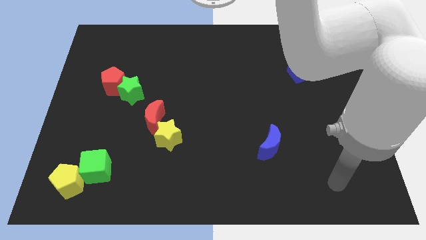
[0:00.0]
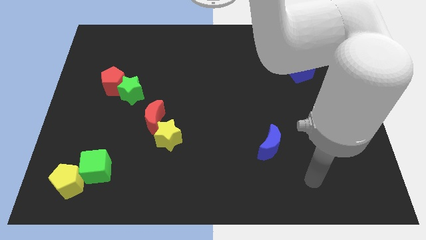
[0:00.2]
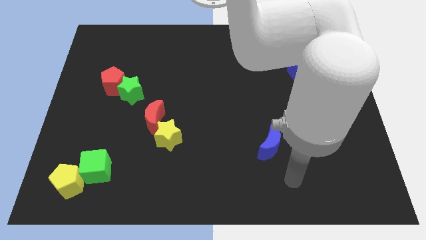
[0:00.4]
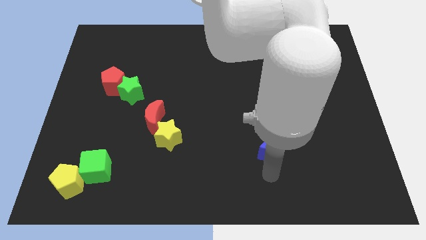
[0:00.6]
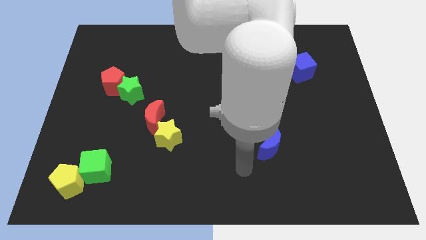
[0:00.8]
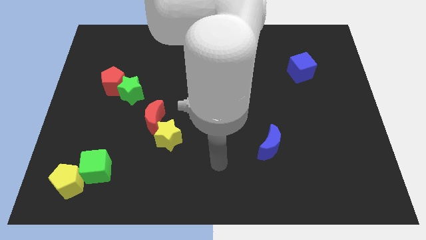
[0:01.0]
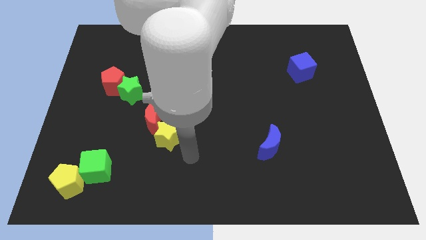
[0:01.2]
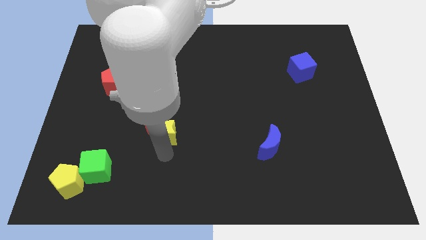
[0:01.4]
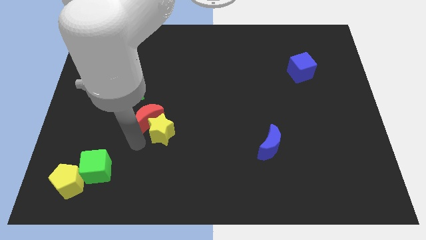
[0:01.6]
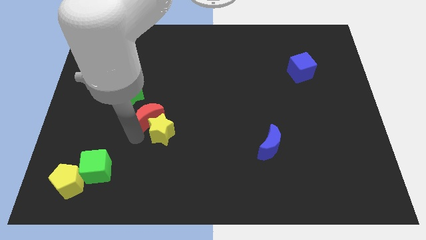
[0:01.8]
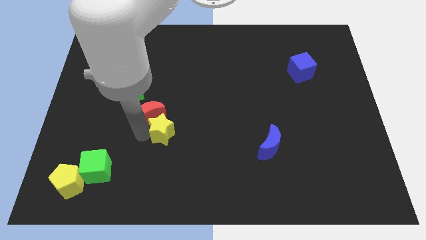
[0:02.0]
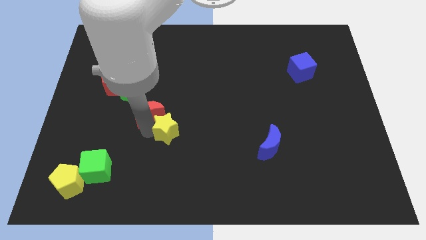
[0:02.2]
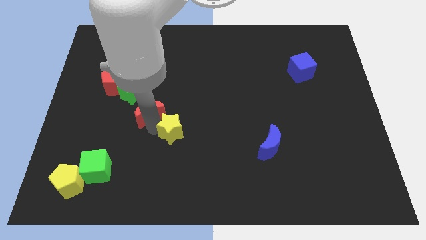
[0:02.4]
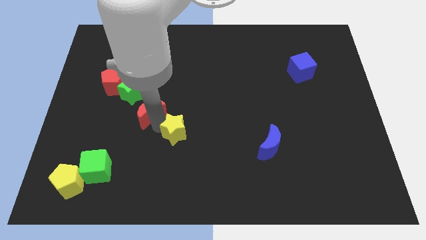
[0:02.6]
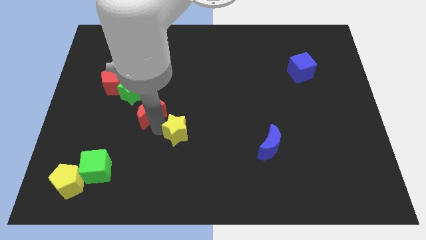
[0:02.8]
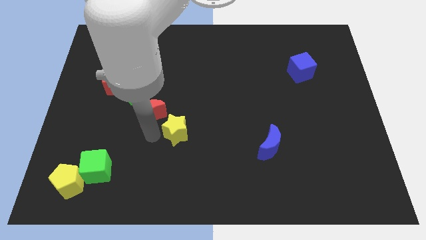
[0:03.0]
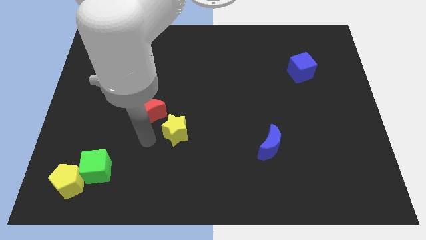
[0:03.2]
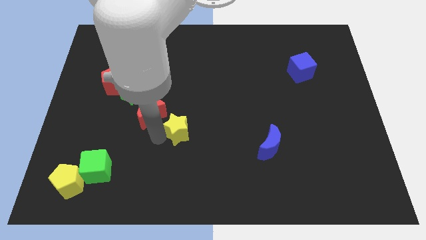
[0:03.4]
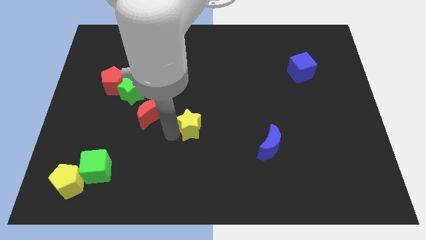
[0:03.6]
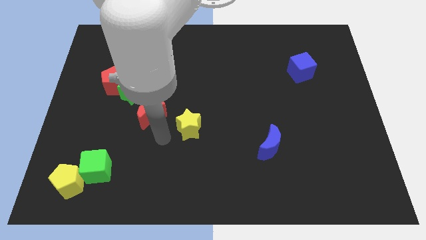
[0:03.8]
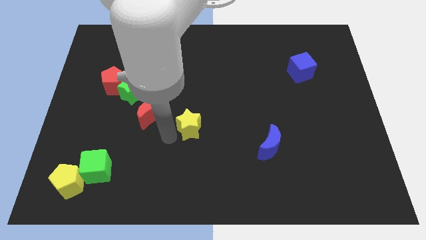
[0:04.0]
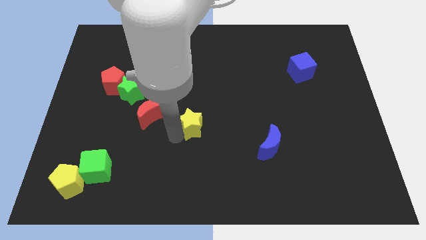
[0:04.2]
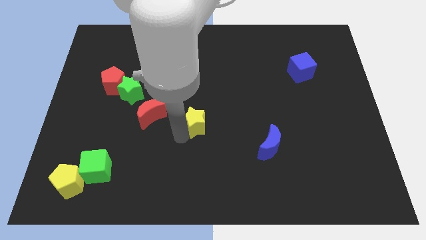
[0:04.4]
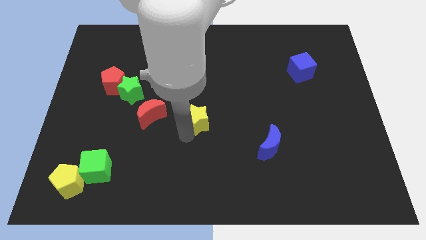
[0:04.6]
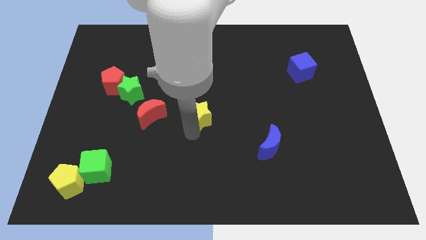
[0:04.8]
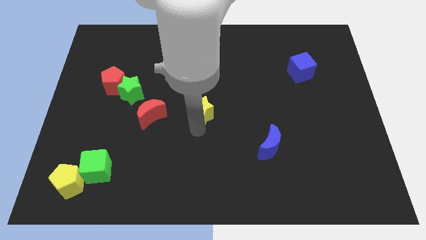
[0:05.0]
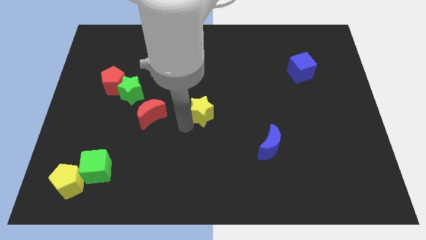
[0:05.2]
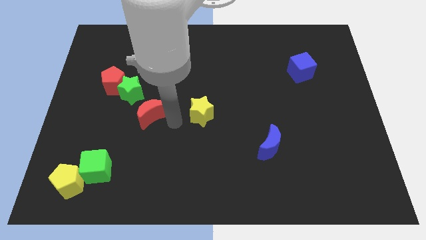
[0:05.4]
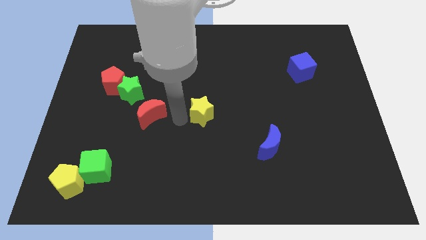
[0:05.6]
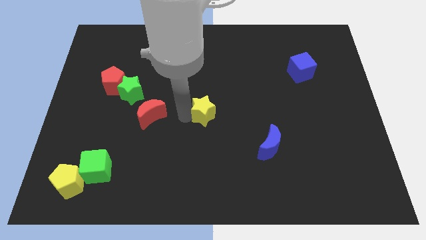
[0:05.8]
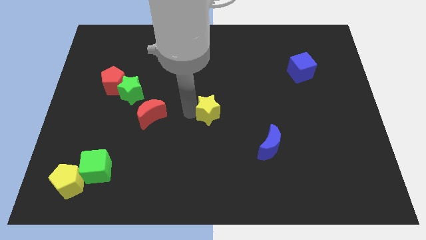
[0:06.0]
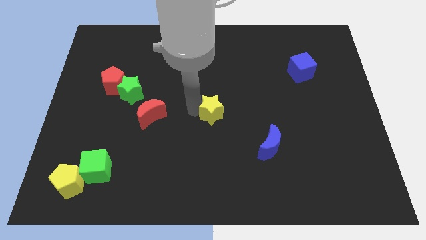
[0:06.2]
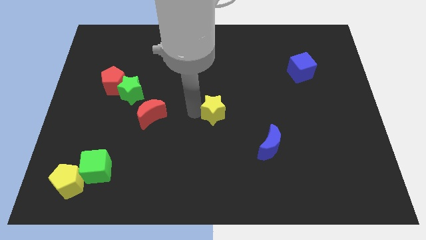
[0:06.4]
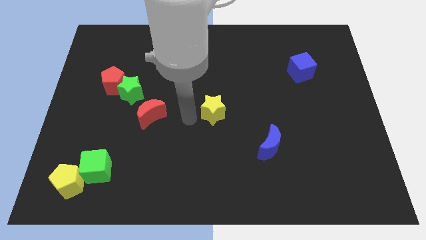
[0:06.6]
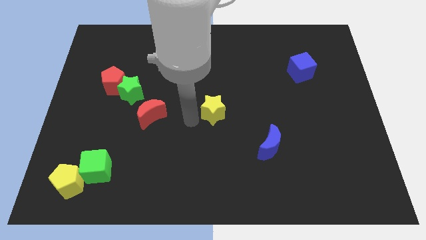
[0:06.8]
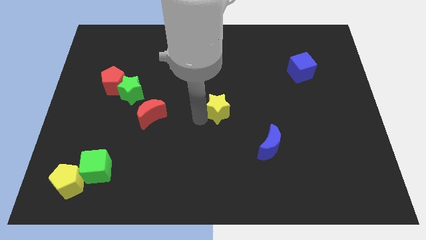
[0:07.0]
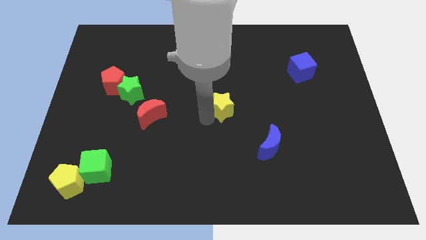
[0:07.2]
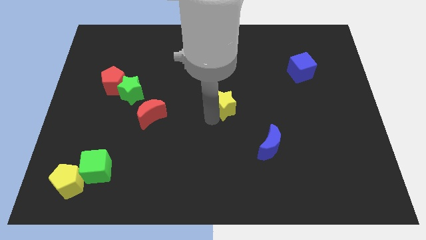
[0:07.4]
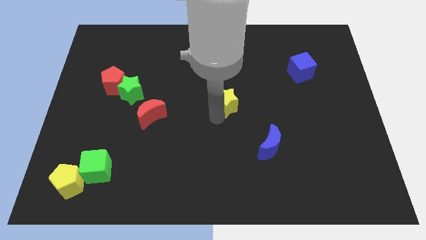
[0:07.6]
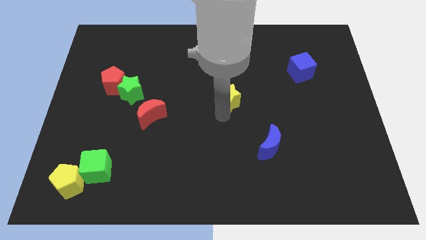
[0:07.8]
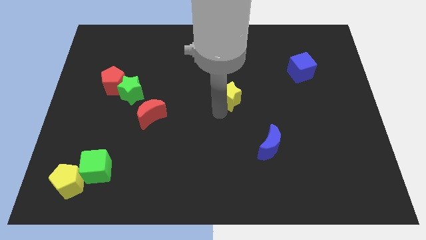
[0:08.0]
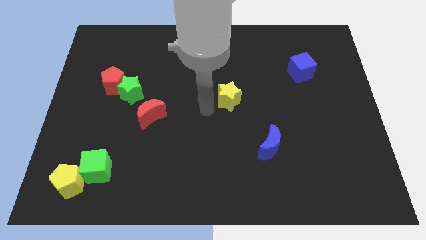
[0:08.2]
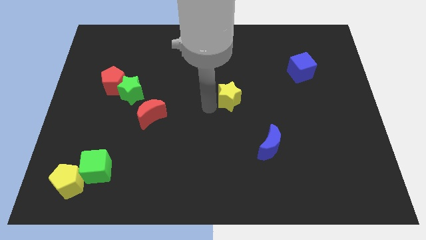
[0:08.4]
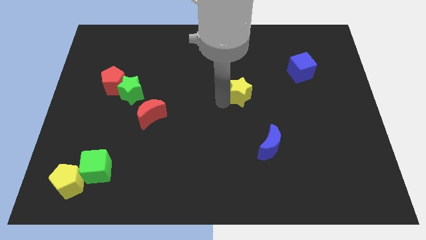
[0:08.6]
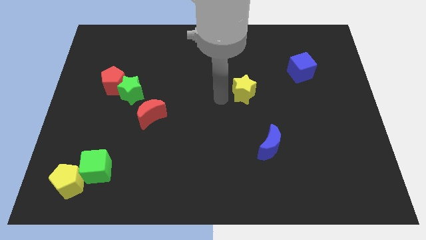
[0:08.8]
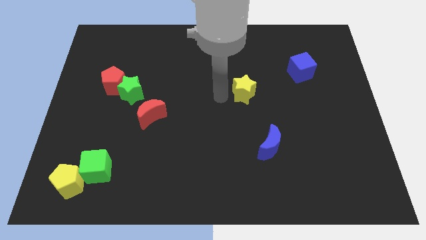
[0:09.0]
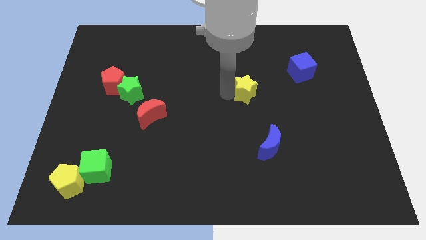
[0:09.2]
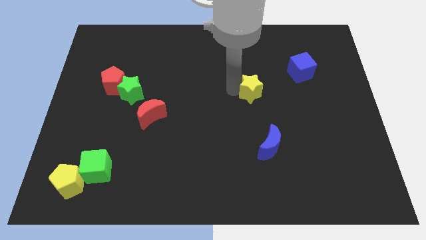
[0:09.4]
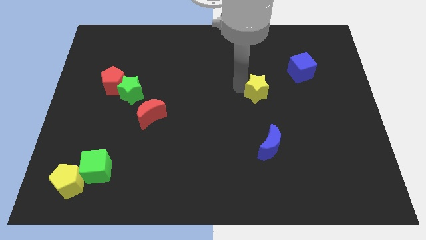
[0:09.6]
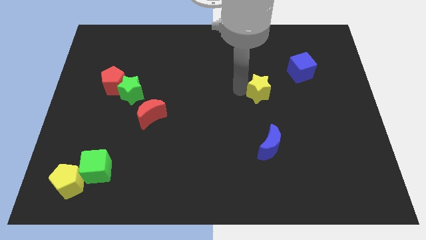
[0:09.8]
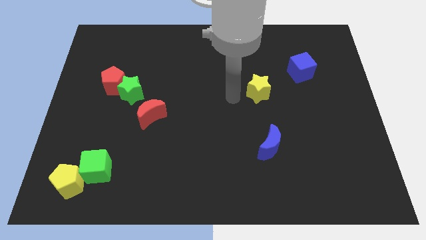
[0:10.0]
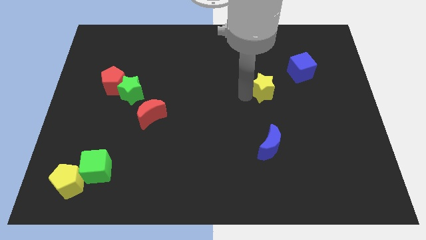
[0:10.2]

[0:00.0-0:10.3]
push the yellow star to the bottom left side of the blue cube

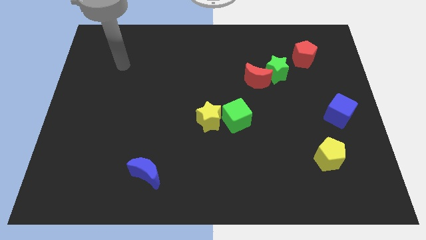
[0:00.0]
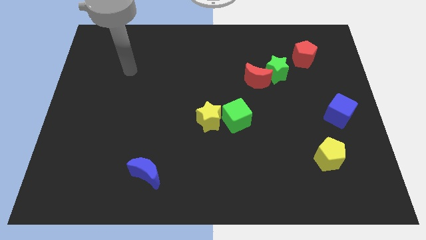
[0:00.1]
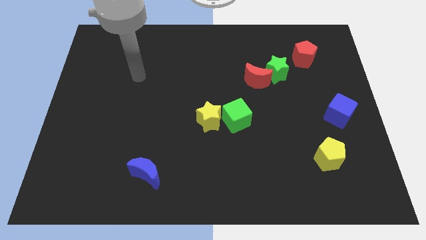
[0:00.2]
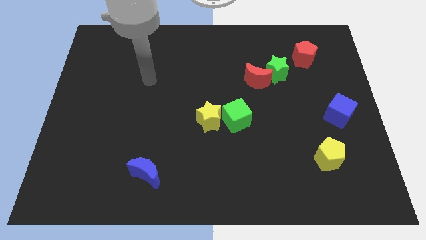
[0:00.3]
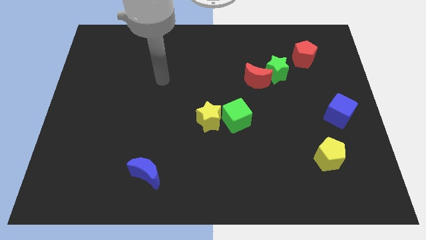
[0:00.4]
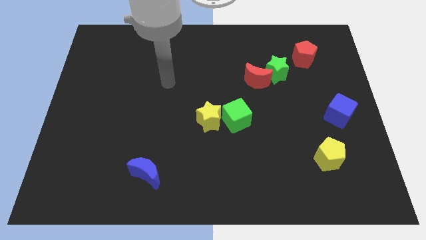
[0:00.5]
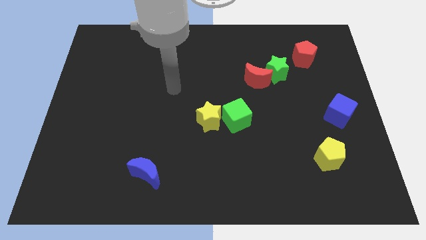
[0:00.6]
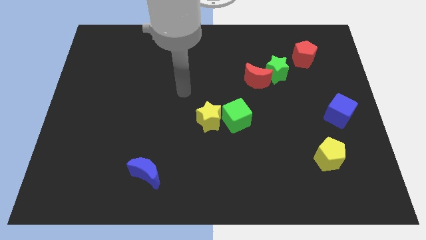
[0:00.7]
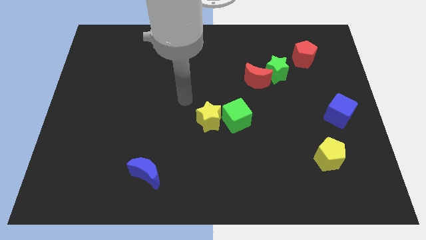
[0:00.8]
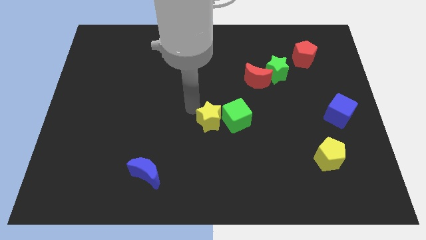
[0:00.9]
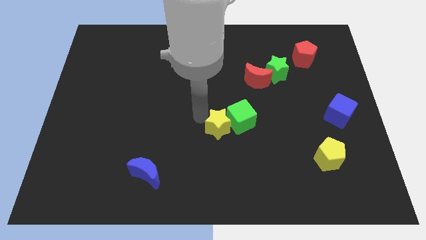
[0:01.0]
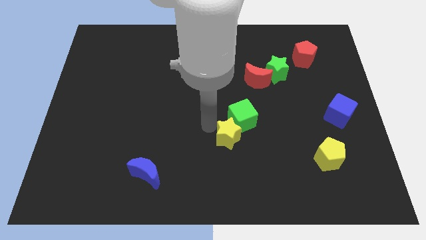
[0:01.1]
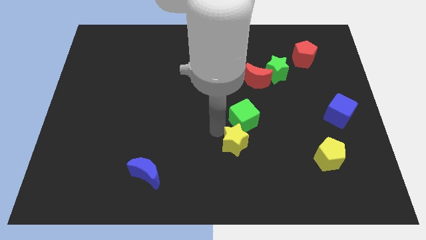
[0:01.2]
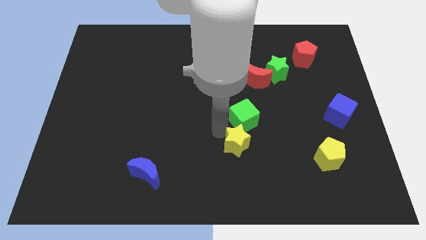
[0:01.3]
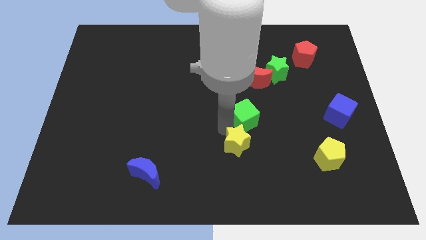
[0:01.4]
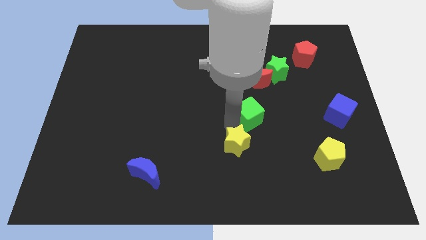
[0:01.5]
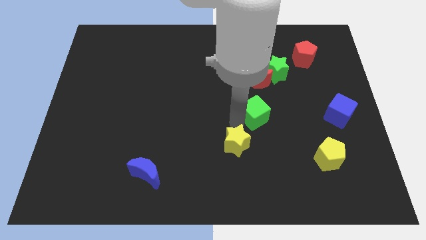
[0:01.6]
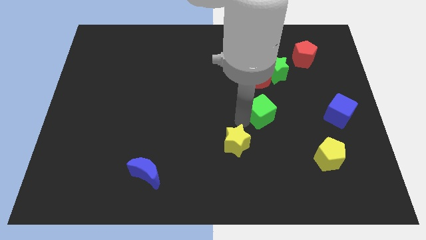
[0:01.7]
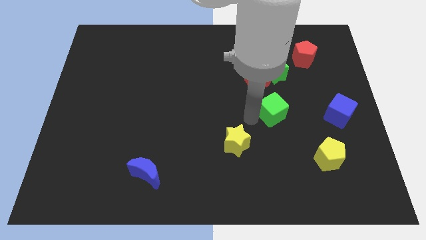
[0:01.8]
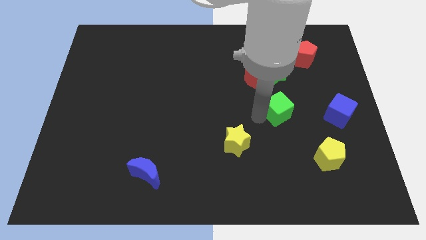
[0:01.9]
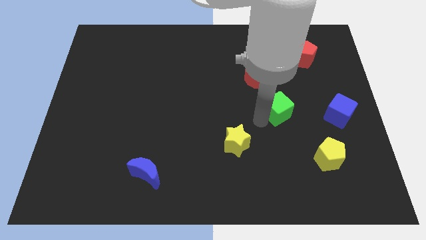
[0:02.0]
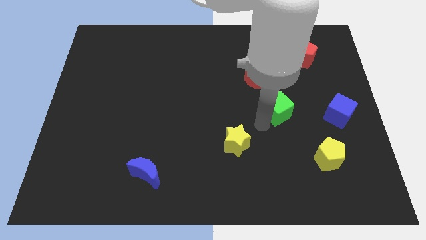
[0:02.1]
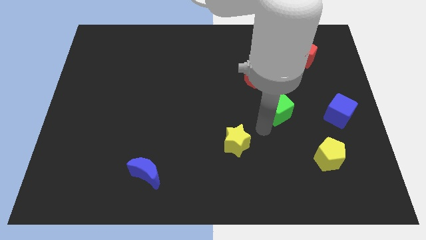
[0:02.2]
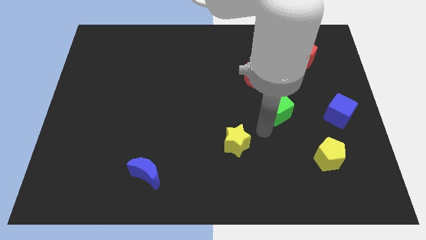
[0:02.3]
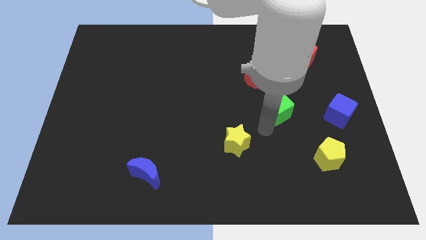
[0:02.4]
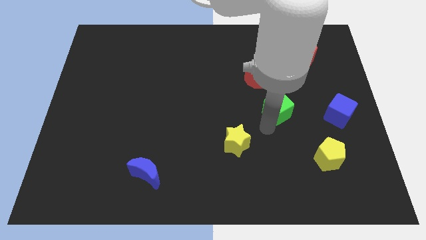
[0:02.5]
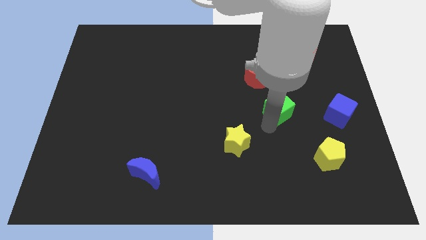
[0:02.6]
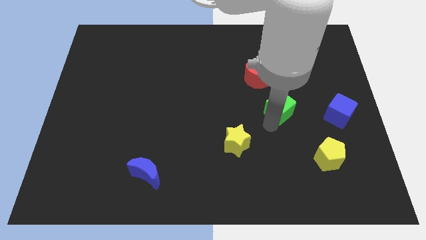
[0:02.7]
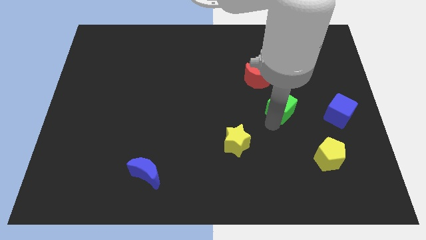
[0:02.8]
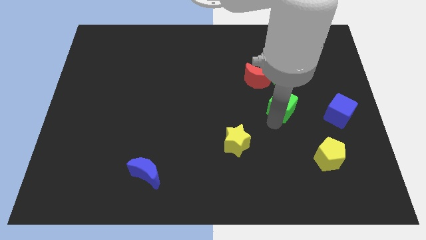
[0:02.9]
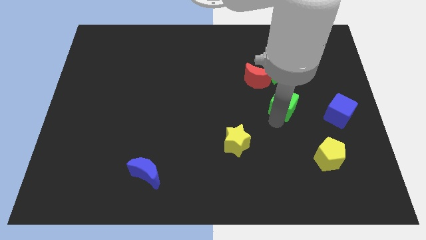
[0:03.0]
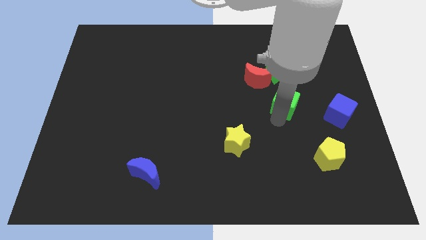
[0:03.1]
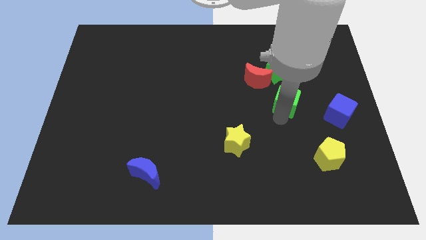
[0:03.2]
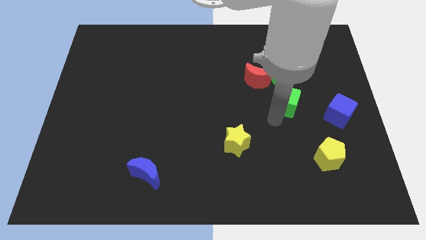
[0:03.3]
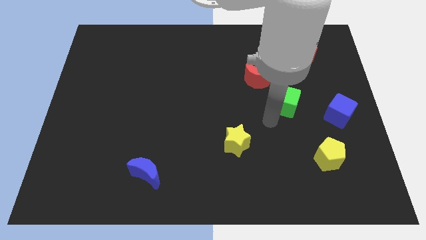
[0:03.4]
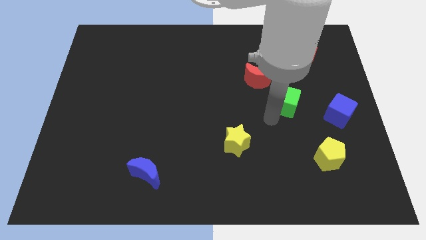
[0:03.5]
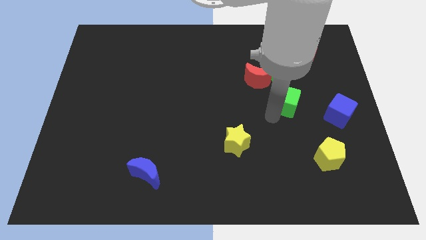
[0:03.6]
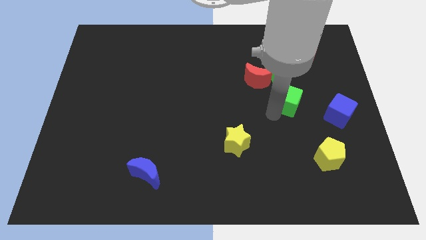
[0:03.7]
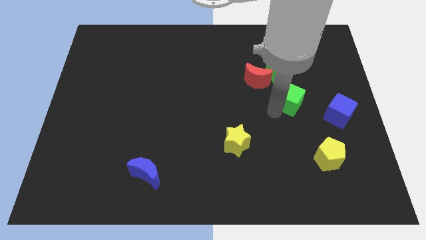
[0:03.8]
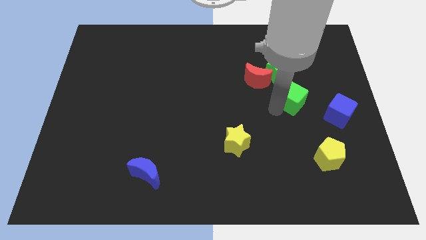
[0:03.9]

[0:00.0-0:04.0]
push the green cube diagonally down and to the right of the green star
